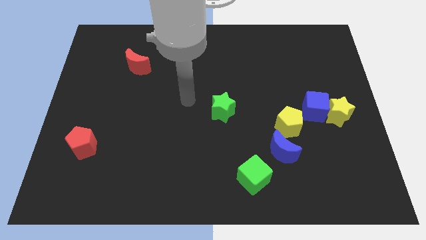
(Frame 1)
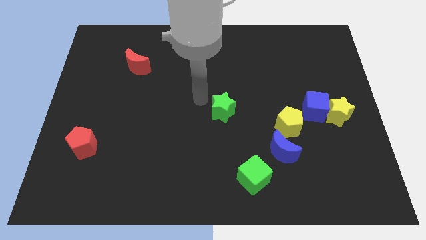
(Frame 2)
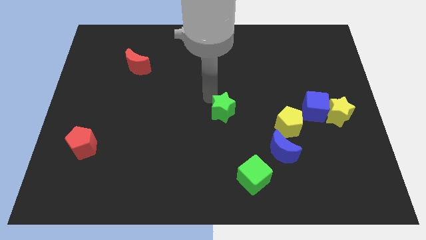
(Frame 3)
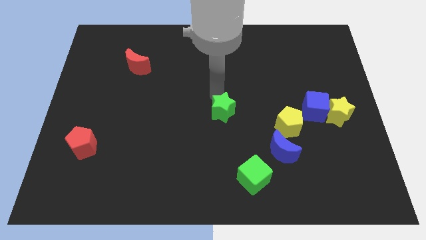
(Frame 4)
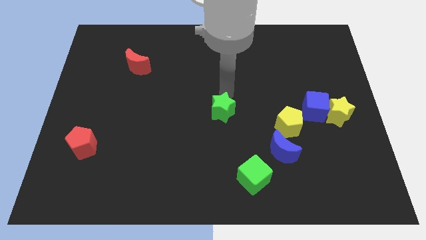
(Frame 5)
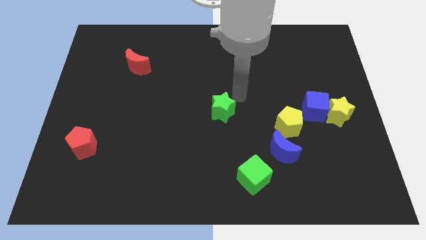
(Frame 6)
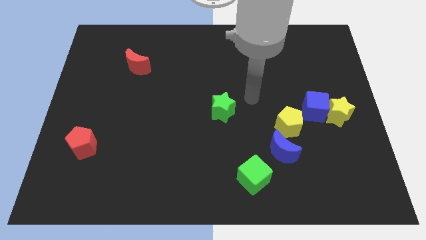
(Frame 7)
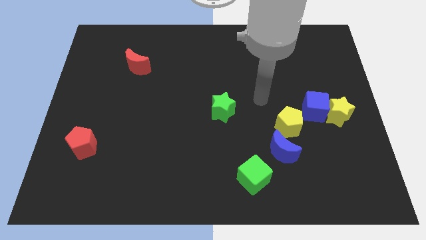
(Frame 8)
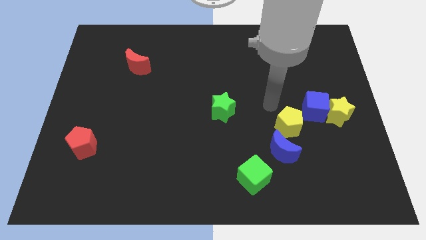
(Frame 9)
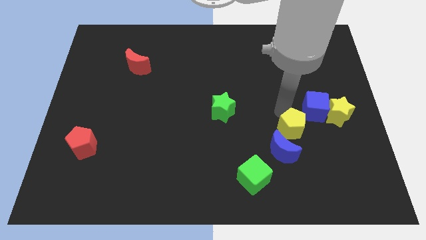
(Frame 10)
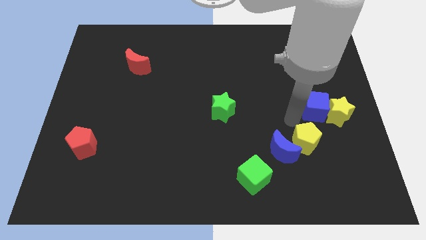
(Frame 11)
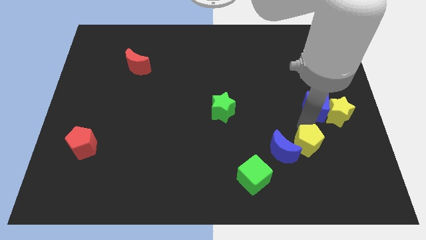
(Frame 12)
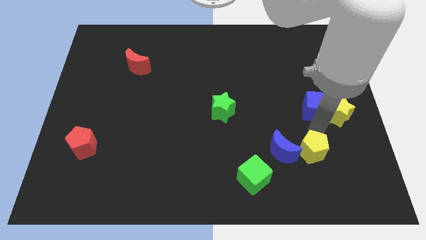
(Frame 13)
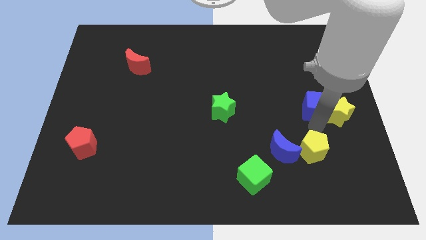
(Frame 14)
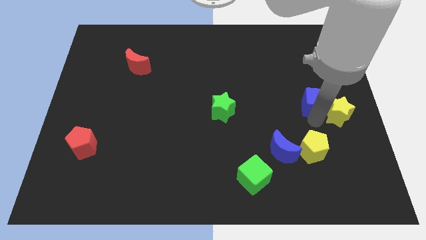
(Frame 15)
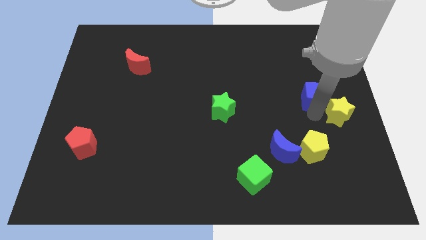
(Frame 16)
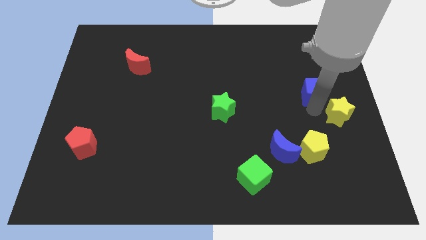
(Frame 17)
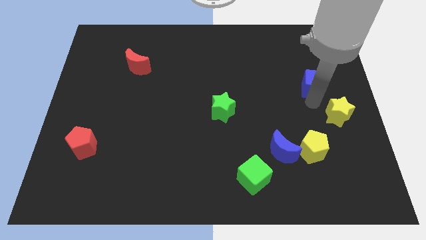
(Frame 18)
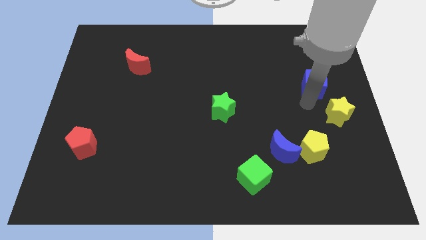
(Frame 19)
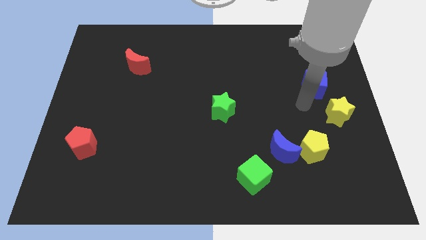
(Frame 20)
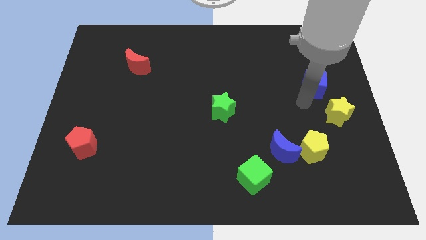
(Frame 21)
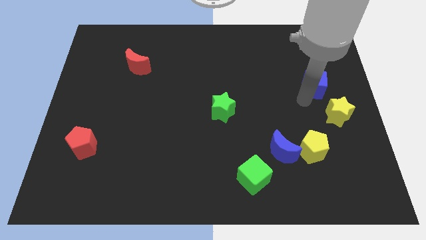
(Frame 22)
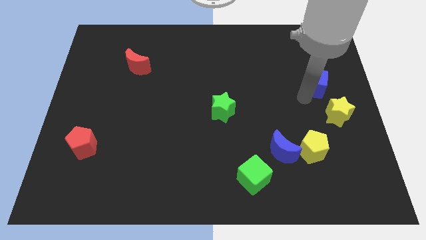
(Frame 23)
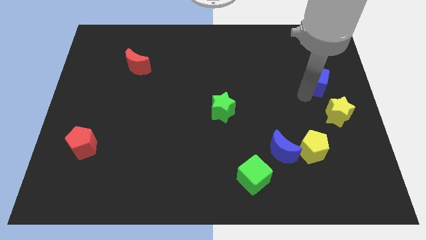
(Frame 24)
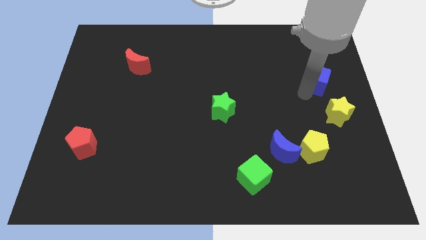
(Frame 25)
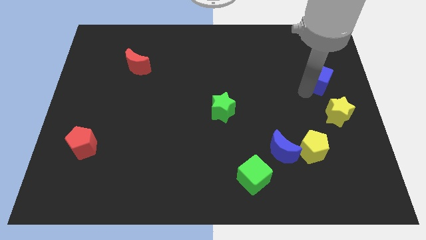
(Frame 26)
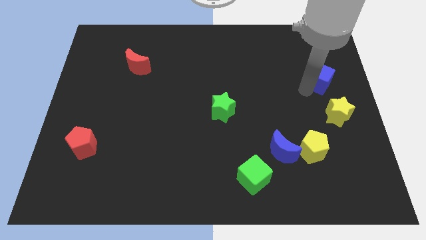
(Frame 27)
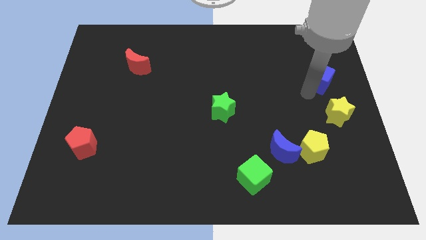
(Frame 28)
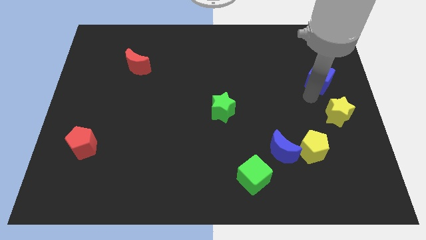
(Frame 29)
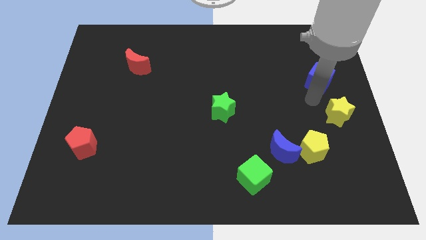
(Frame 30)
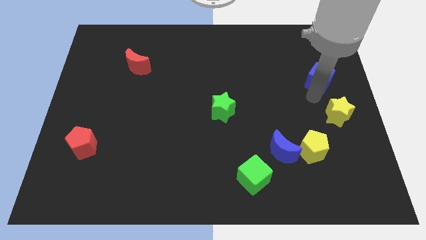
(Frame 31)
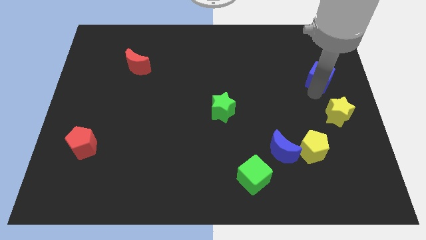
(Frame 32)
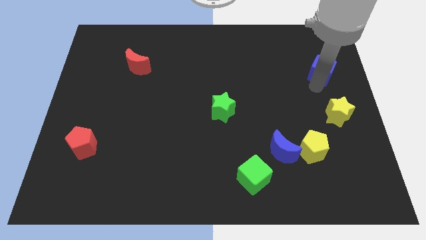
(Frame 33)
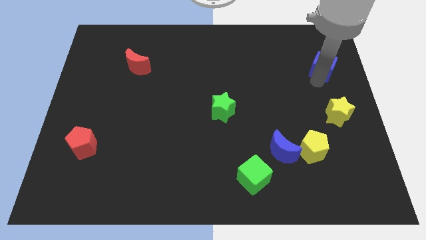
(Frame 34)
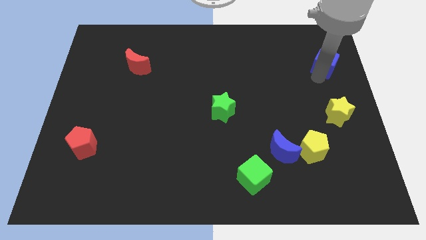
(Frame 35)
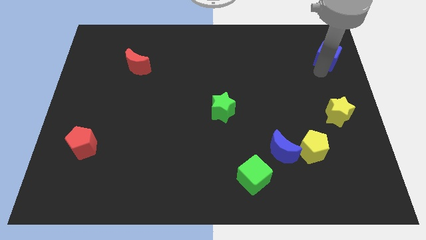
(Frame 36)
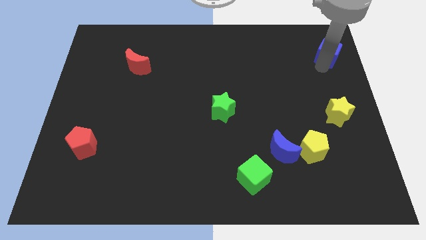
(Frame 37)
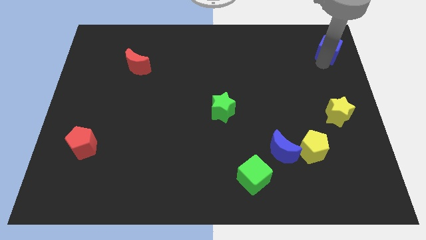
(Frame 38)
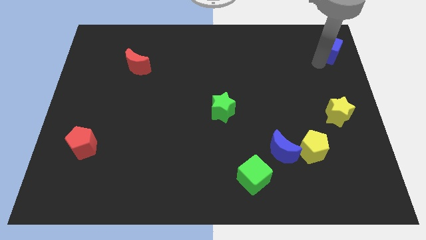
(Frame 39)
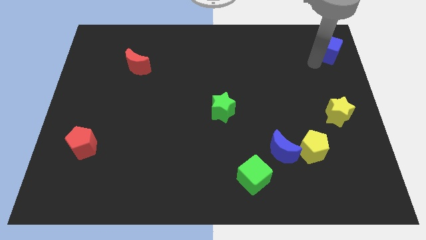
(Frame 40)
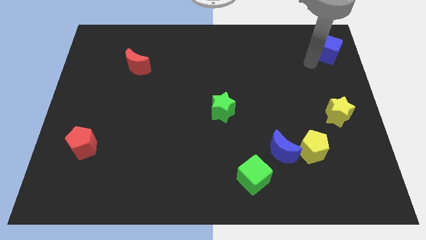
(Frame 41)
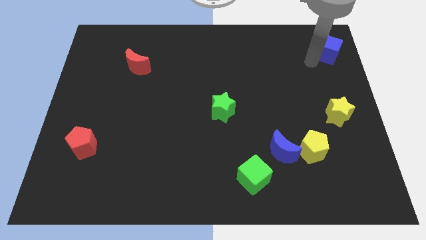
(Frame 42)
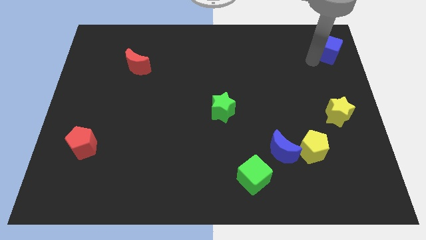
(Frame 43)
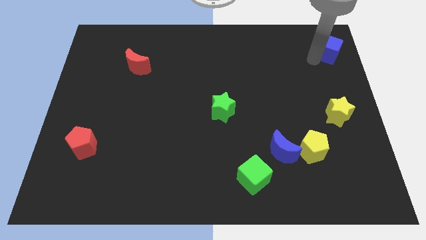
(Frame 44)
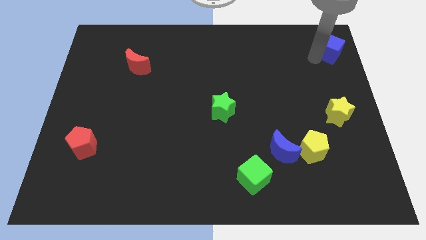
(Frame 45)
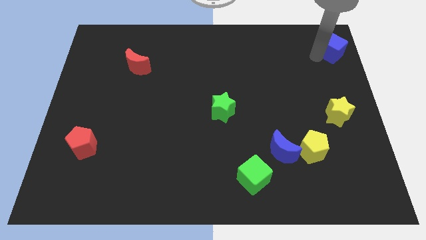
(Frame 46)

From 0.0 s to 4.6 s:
slide the blue cube to the top right

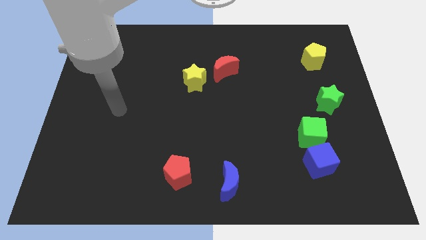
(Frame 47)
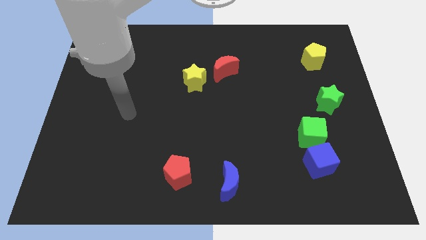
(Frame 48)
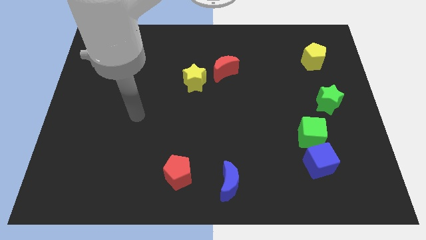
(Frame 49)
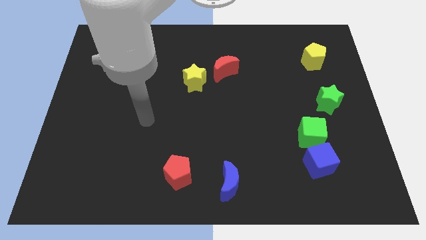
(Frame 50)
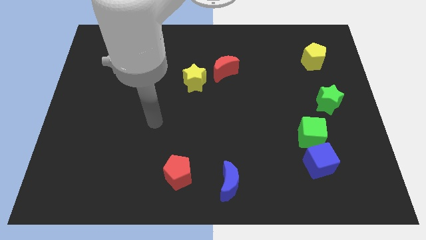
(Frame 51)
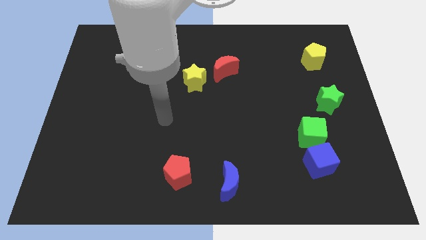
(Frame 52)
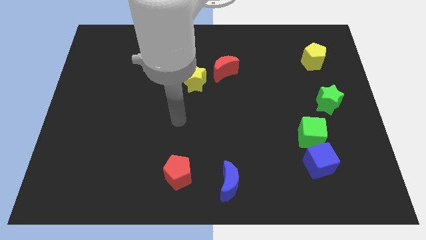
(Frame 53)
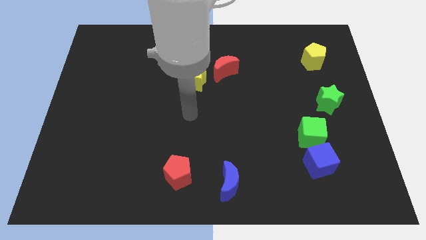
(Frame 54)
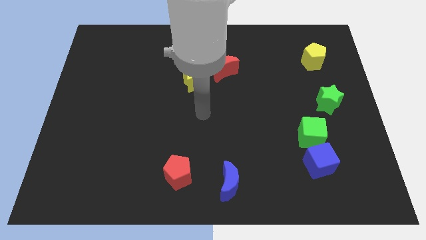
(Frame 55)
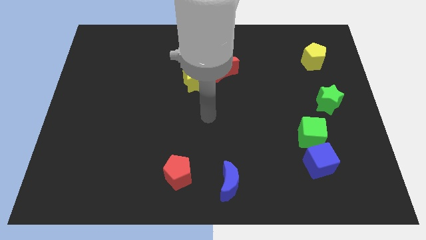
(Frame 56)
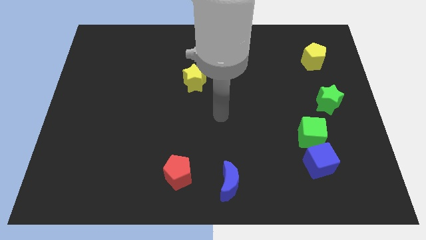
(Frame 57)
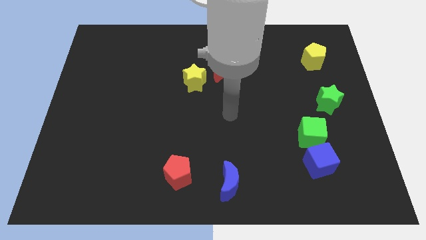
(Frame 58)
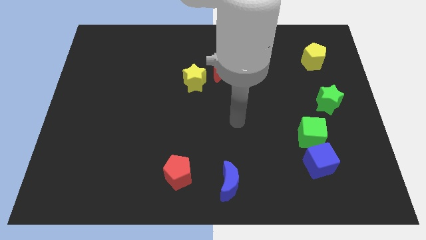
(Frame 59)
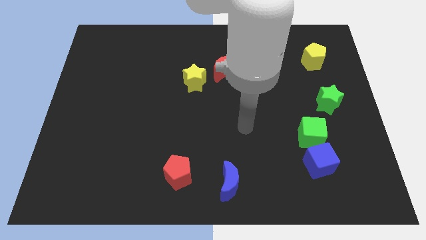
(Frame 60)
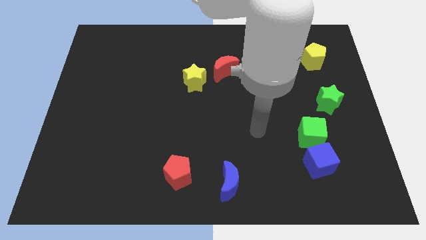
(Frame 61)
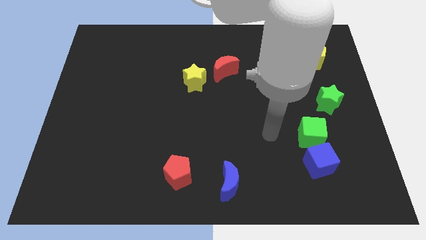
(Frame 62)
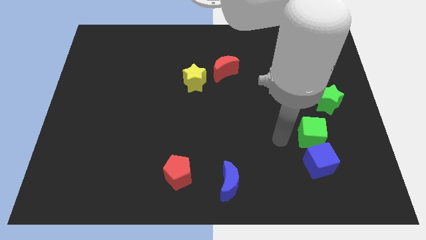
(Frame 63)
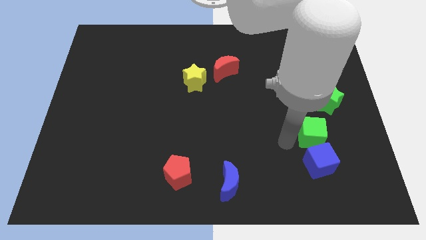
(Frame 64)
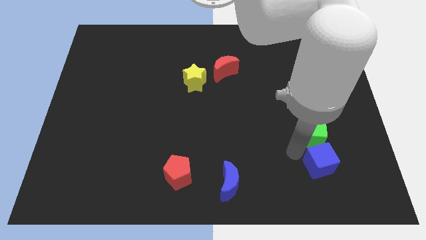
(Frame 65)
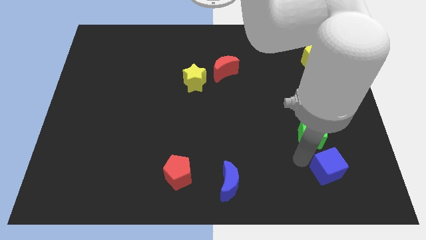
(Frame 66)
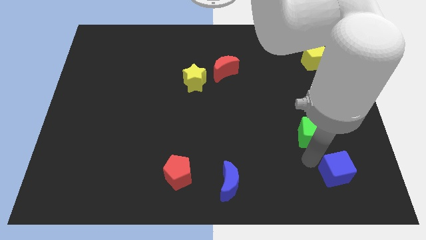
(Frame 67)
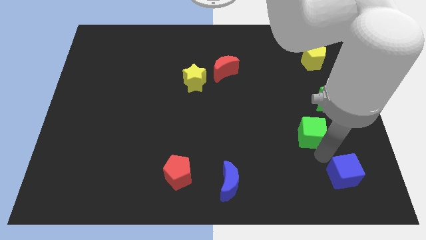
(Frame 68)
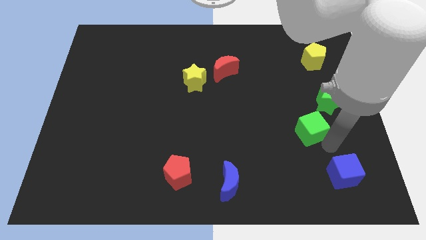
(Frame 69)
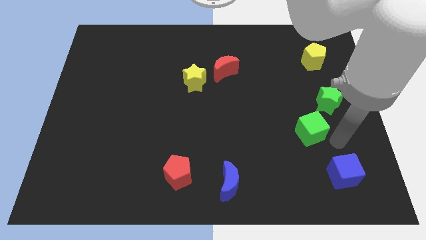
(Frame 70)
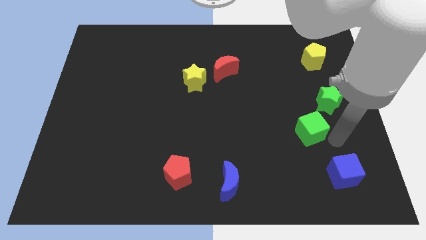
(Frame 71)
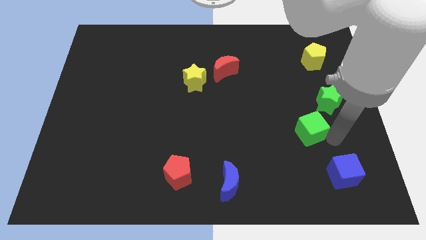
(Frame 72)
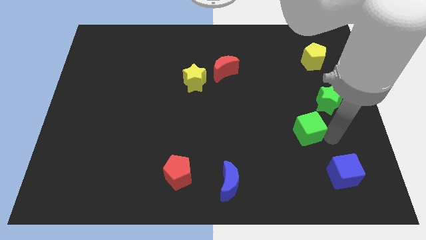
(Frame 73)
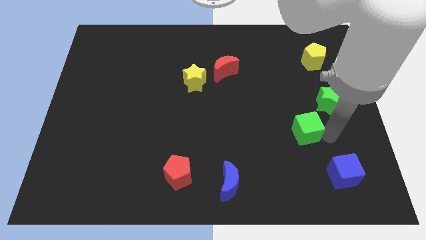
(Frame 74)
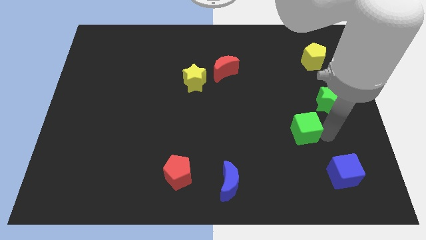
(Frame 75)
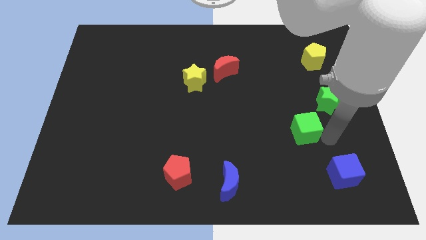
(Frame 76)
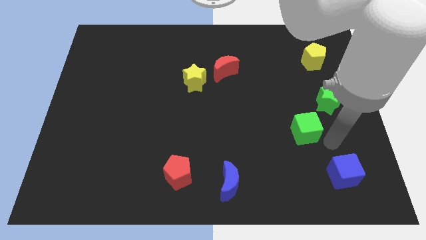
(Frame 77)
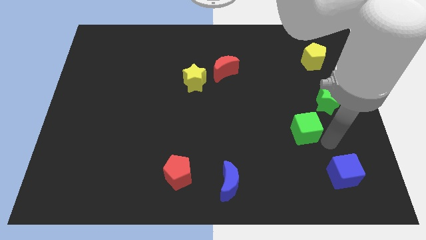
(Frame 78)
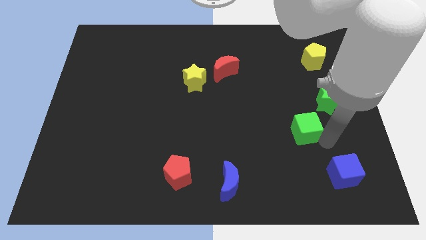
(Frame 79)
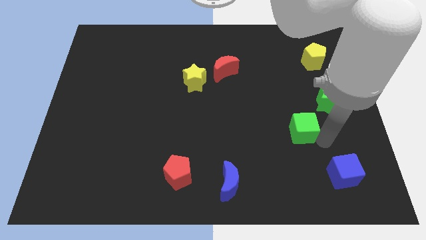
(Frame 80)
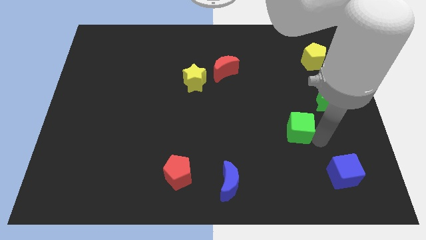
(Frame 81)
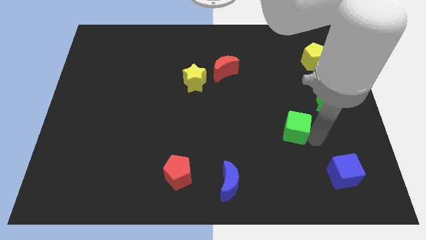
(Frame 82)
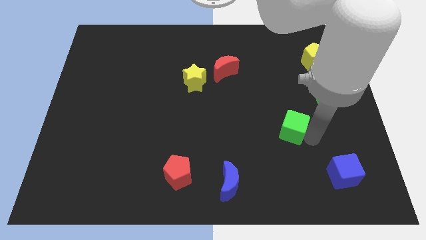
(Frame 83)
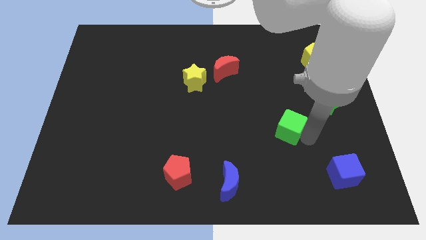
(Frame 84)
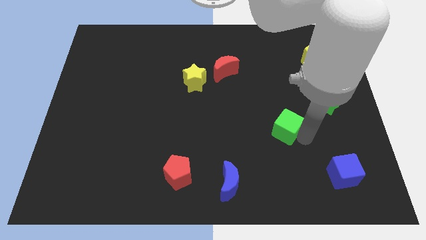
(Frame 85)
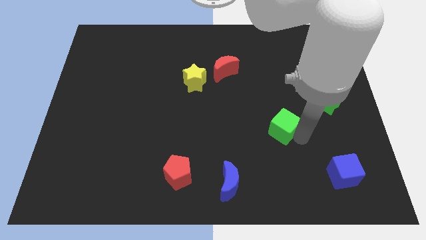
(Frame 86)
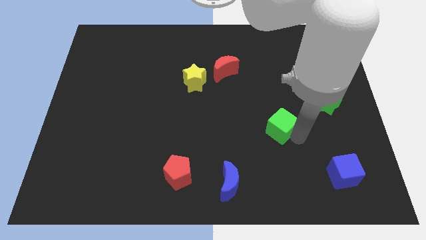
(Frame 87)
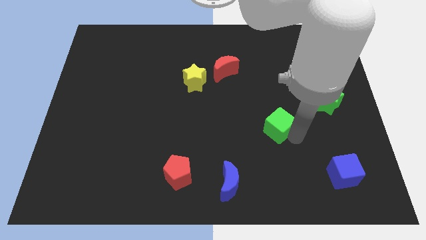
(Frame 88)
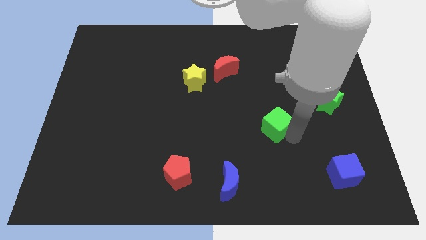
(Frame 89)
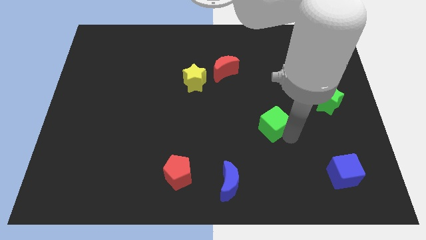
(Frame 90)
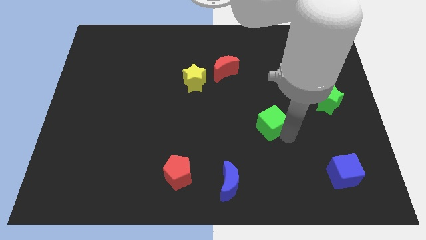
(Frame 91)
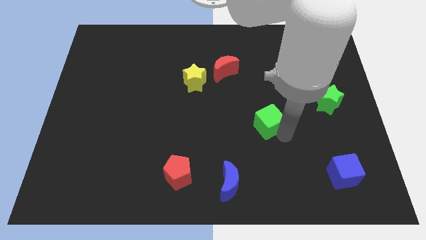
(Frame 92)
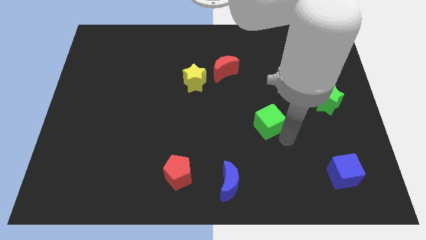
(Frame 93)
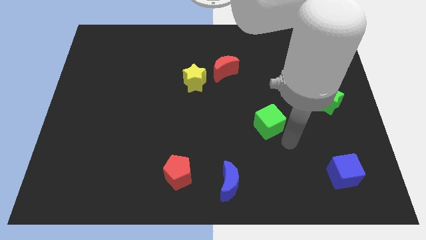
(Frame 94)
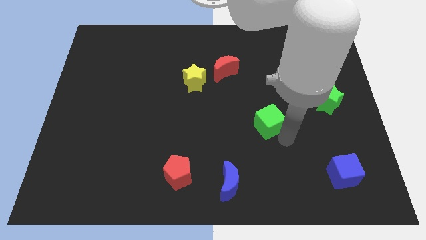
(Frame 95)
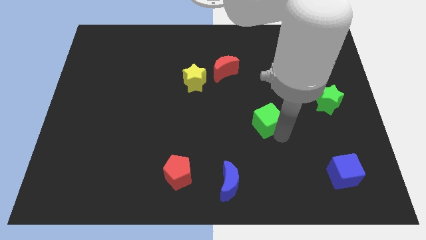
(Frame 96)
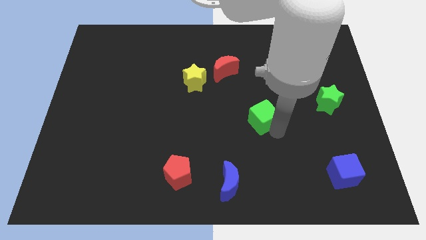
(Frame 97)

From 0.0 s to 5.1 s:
push the green cube to the center
